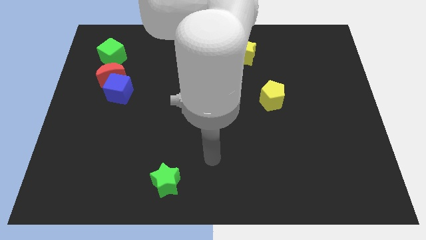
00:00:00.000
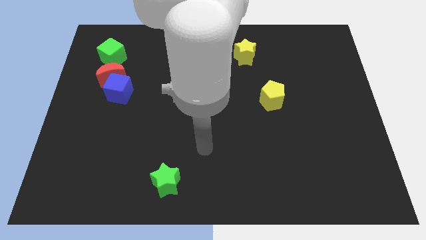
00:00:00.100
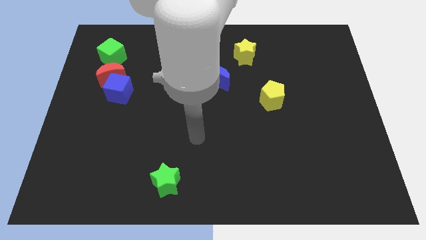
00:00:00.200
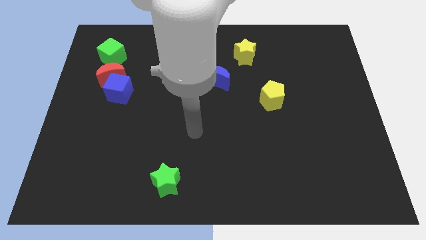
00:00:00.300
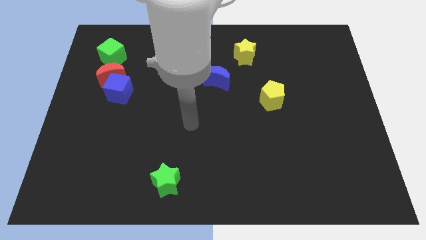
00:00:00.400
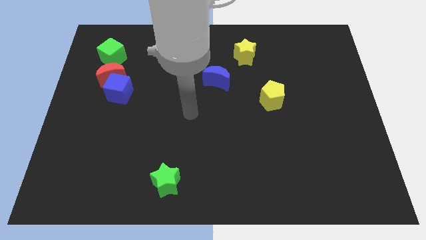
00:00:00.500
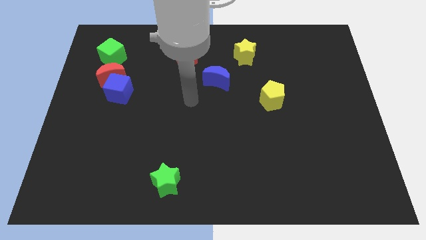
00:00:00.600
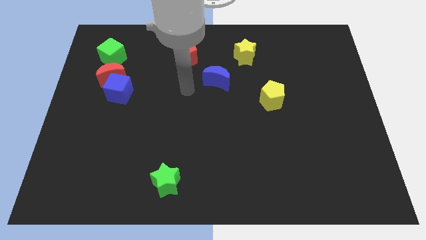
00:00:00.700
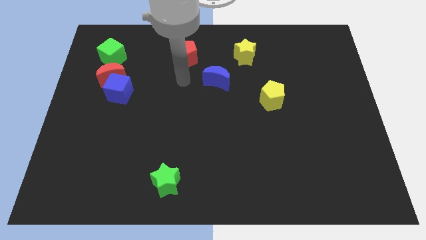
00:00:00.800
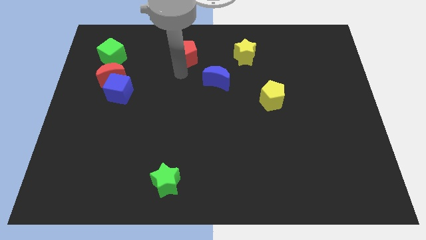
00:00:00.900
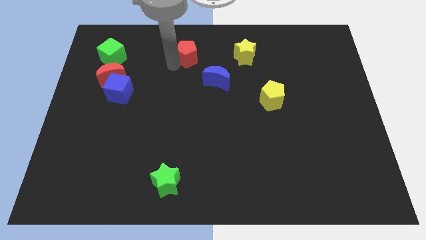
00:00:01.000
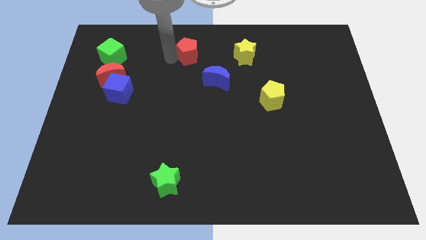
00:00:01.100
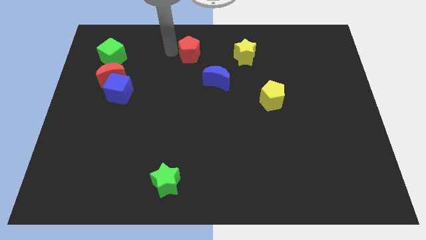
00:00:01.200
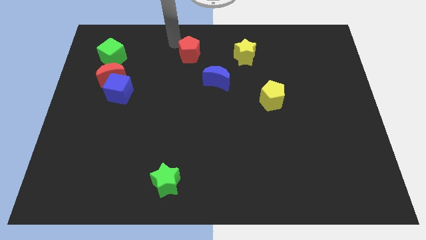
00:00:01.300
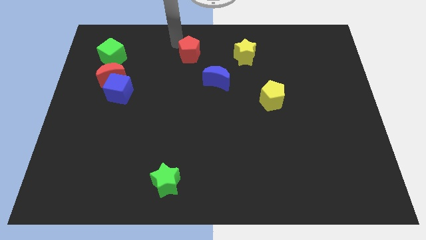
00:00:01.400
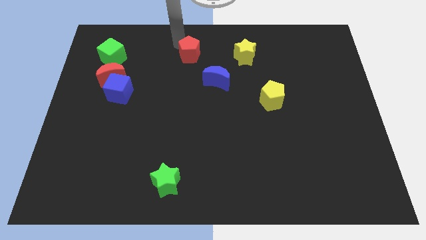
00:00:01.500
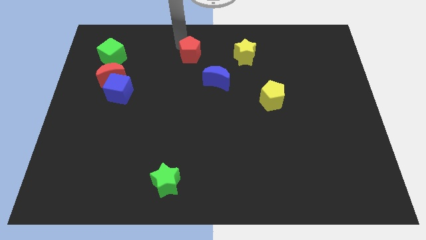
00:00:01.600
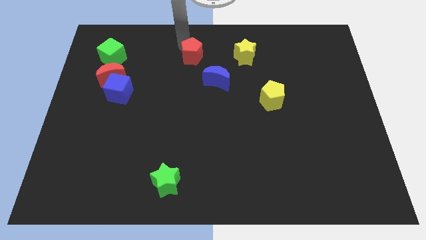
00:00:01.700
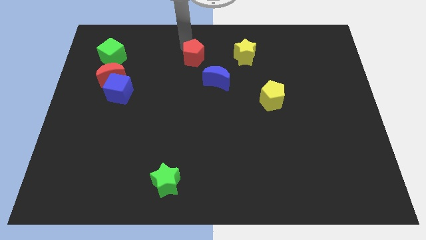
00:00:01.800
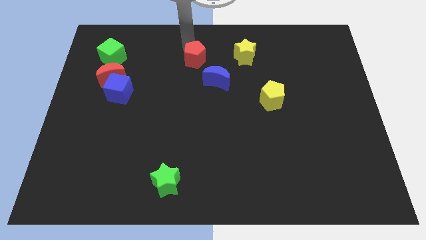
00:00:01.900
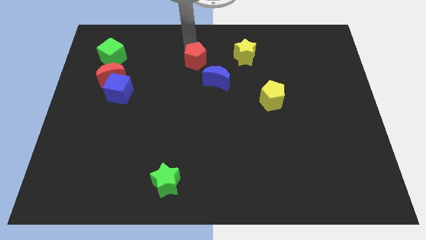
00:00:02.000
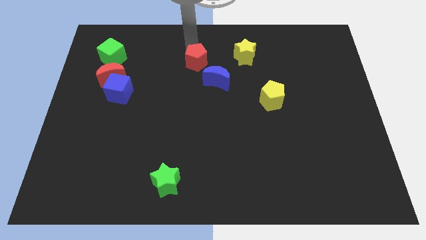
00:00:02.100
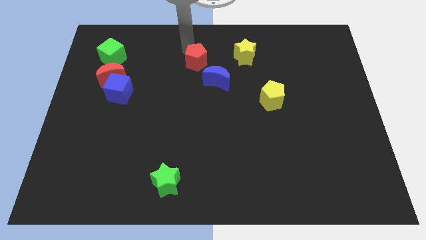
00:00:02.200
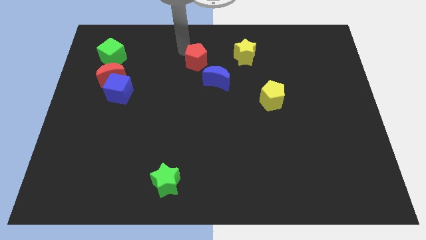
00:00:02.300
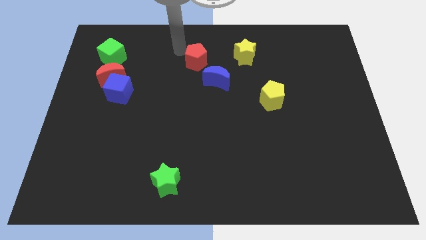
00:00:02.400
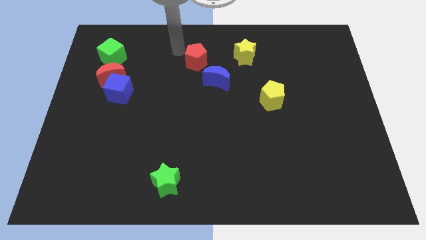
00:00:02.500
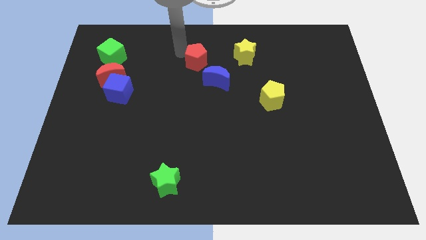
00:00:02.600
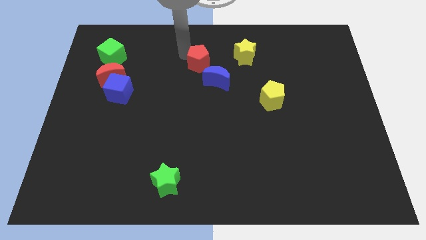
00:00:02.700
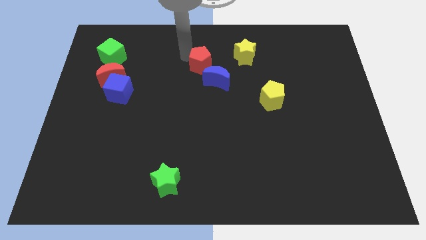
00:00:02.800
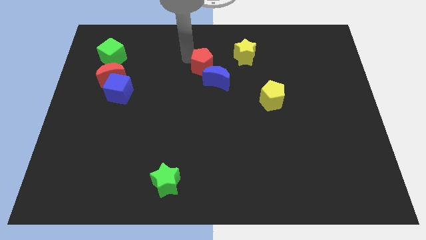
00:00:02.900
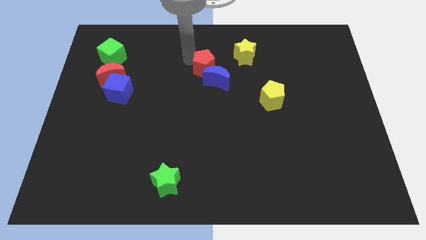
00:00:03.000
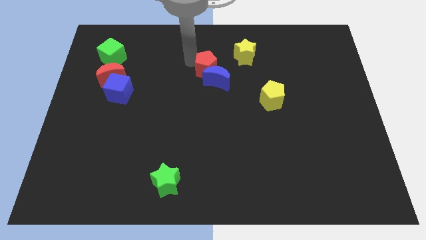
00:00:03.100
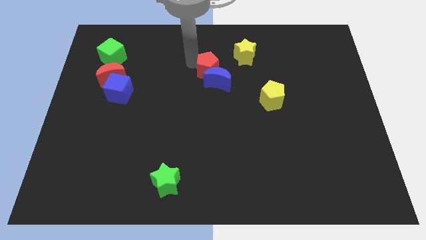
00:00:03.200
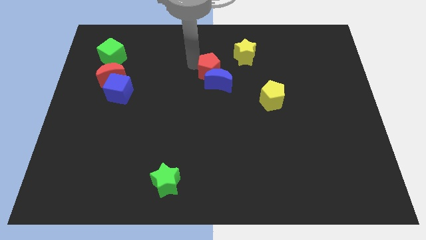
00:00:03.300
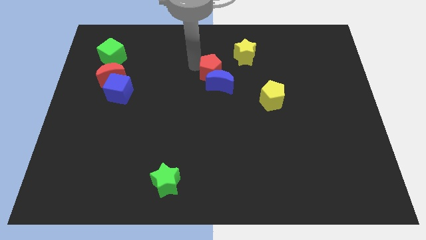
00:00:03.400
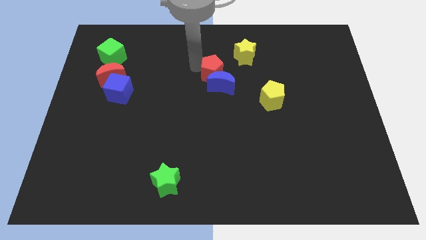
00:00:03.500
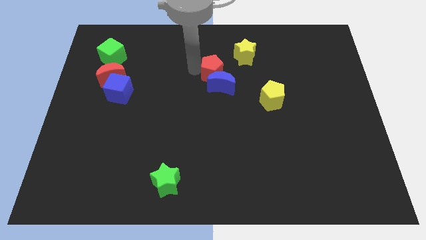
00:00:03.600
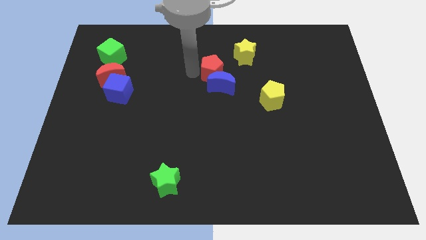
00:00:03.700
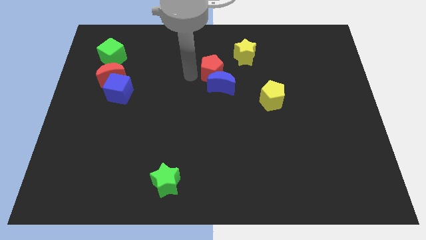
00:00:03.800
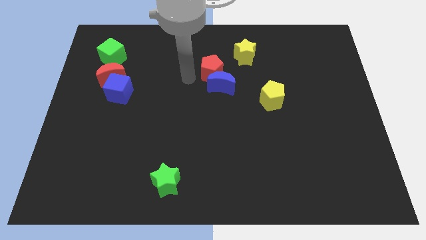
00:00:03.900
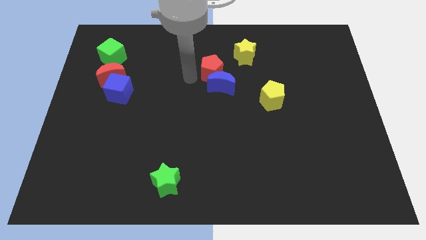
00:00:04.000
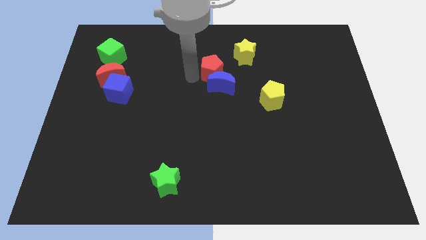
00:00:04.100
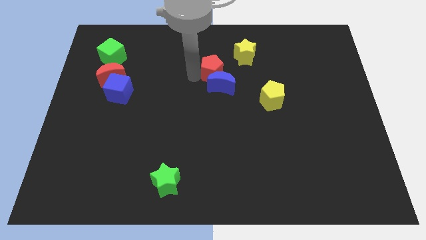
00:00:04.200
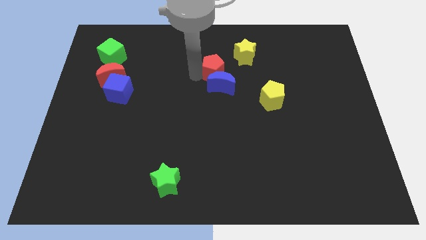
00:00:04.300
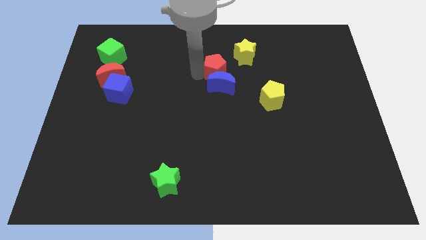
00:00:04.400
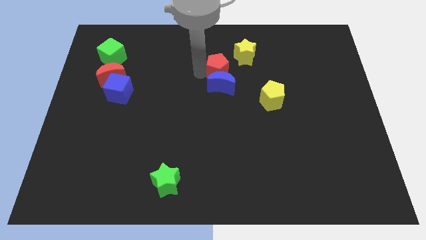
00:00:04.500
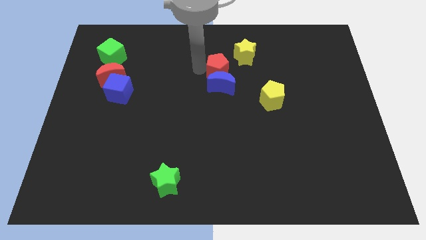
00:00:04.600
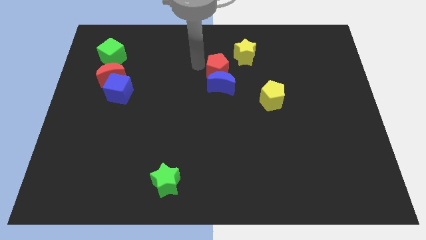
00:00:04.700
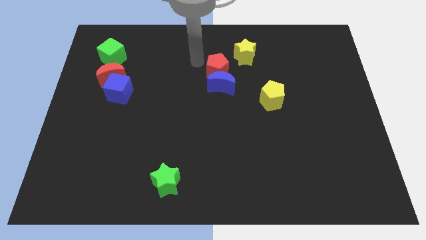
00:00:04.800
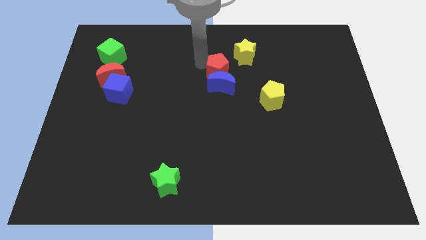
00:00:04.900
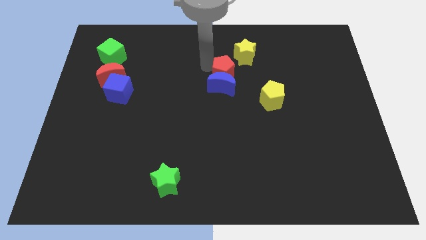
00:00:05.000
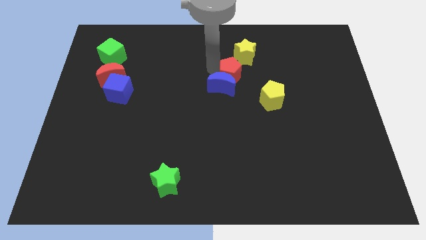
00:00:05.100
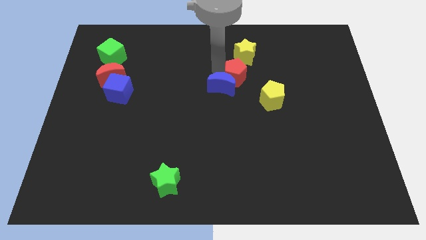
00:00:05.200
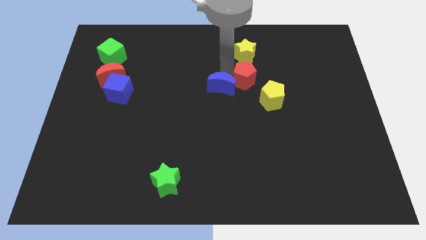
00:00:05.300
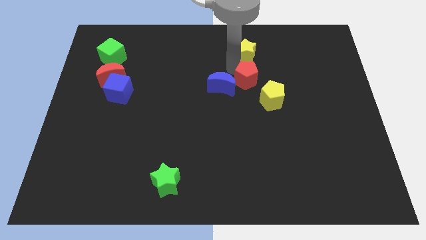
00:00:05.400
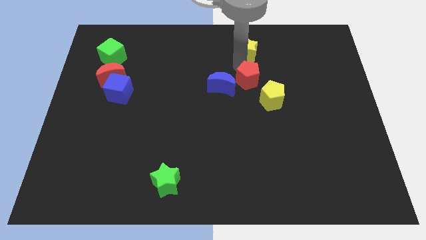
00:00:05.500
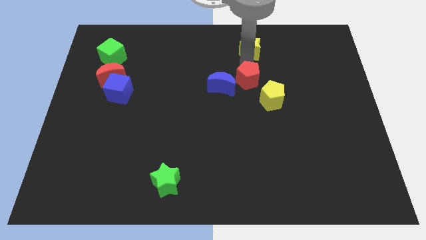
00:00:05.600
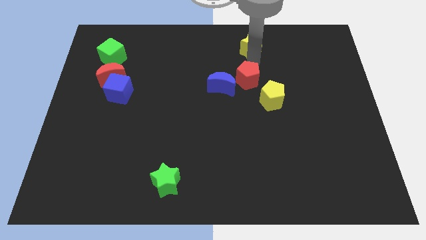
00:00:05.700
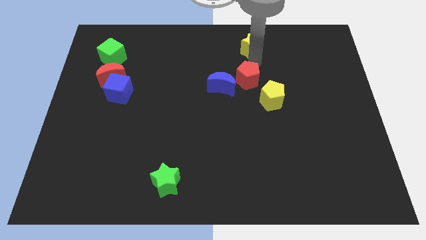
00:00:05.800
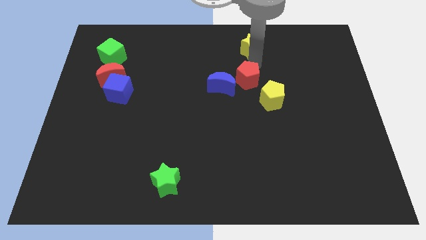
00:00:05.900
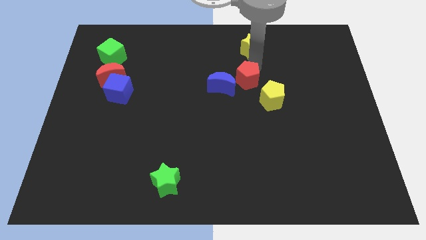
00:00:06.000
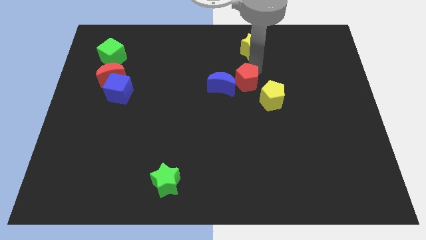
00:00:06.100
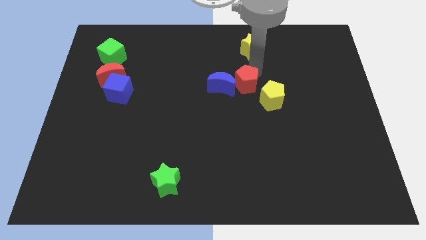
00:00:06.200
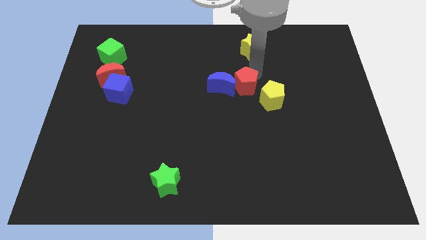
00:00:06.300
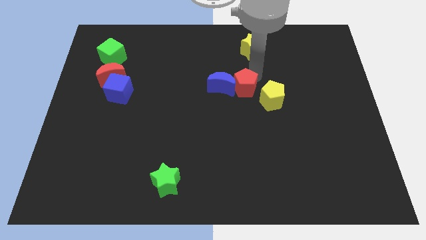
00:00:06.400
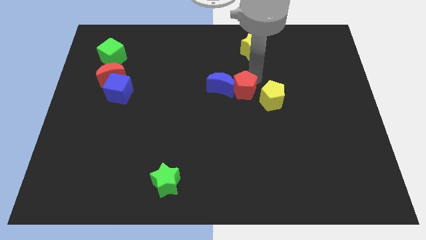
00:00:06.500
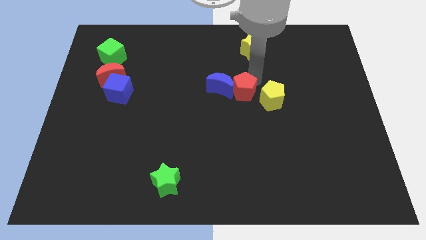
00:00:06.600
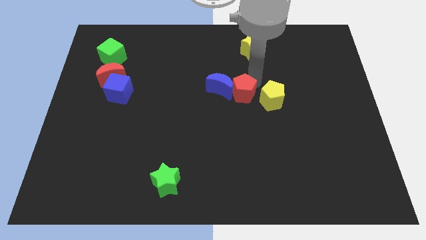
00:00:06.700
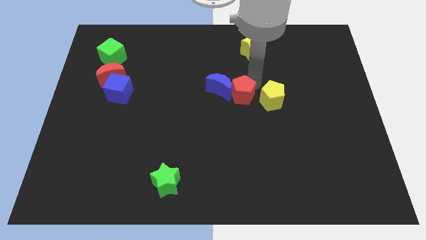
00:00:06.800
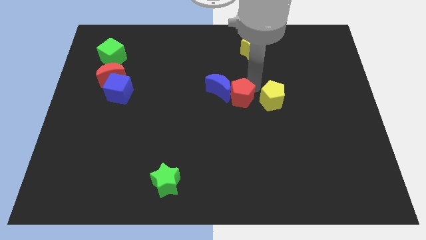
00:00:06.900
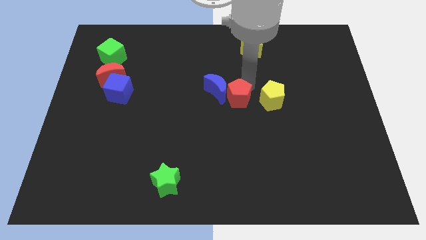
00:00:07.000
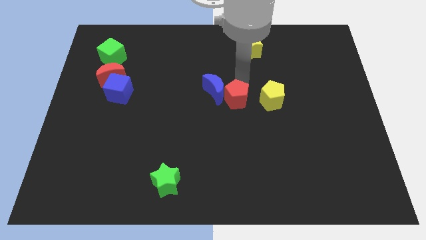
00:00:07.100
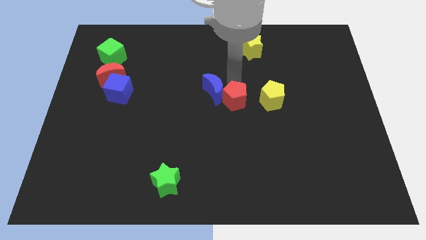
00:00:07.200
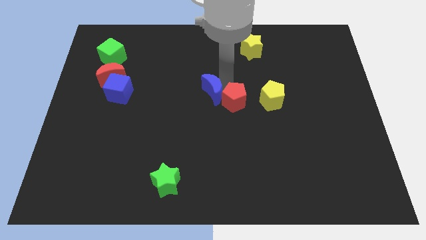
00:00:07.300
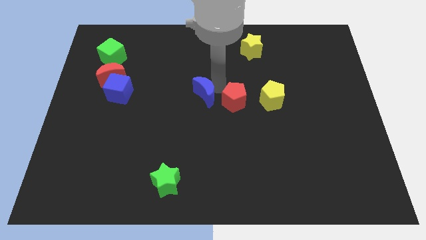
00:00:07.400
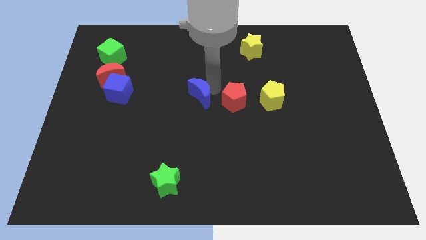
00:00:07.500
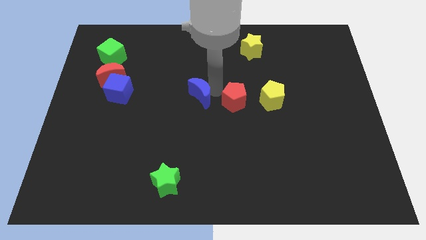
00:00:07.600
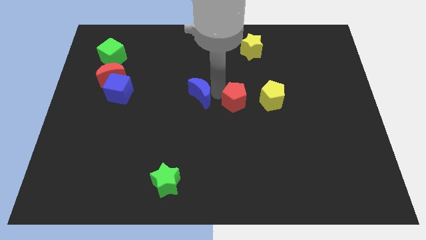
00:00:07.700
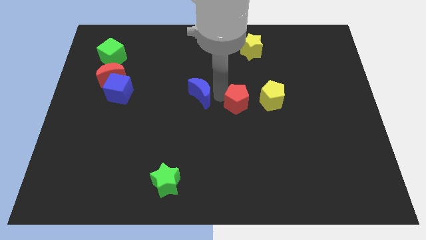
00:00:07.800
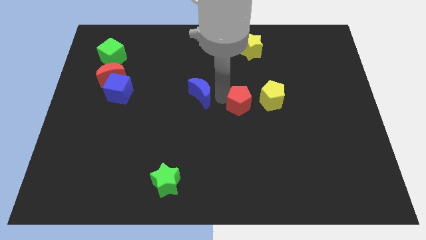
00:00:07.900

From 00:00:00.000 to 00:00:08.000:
push the red pentagon down and then right

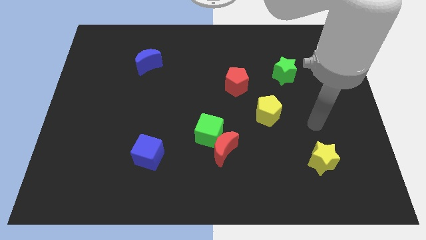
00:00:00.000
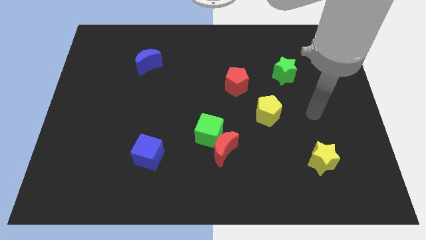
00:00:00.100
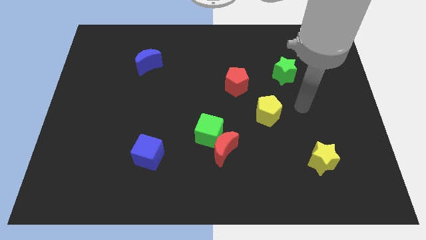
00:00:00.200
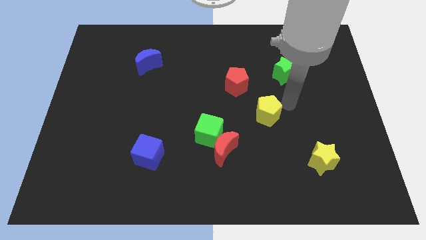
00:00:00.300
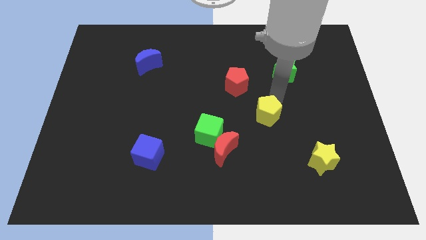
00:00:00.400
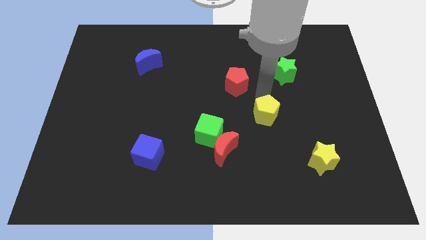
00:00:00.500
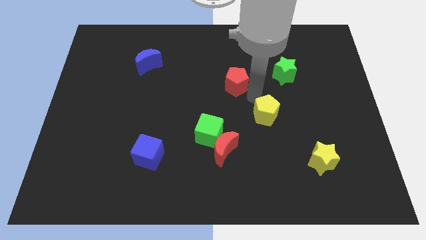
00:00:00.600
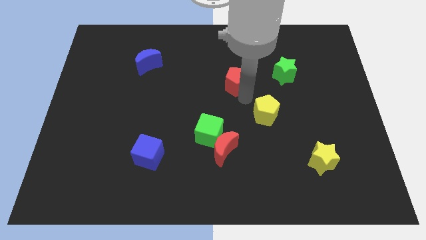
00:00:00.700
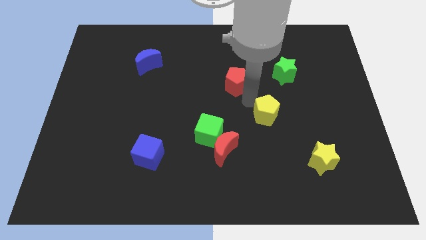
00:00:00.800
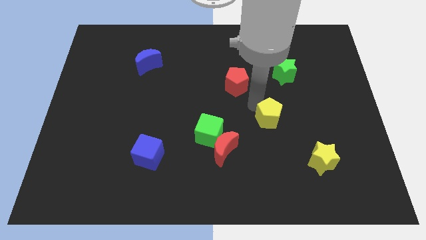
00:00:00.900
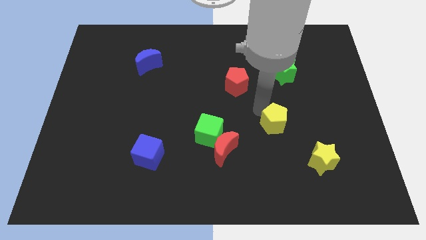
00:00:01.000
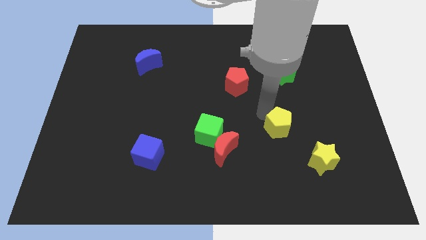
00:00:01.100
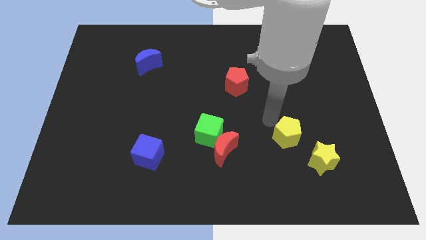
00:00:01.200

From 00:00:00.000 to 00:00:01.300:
slightly push the yellow pentagon downwards and to the right diagonally
